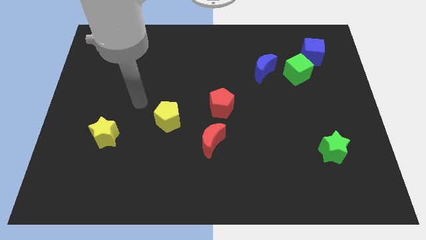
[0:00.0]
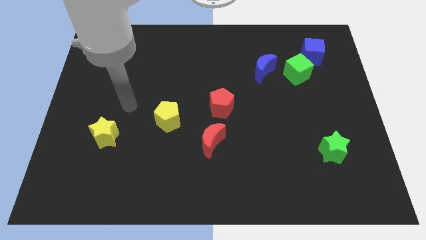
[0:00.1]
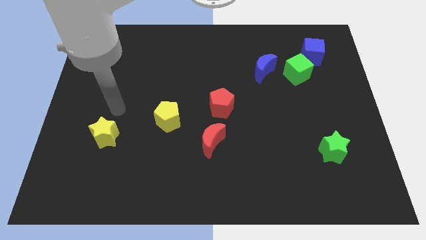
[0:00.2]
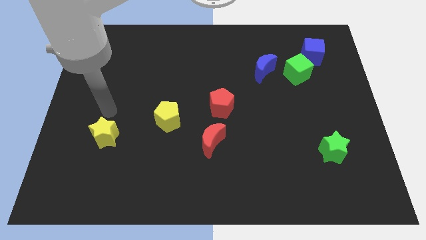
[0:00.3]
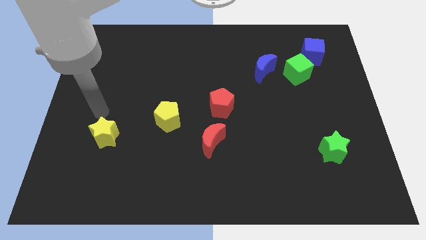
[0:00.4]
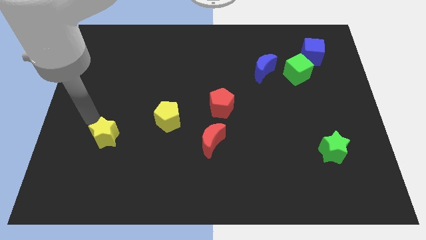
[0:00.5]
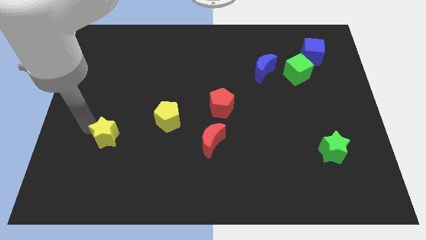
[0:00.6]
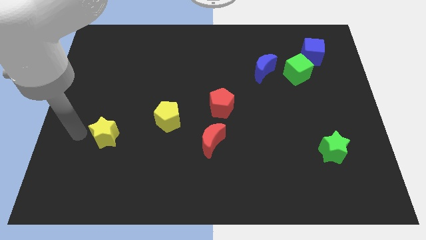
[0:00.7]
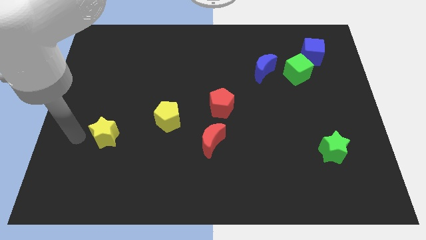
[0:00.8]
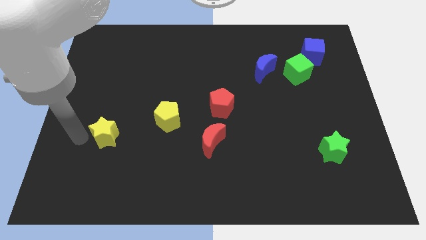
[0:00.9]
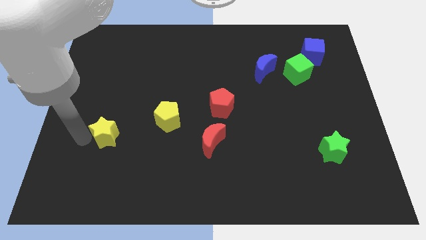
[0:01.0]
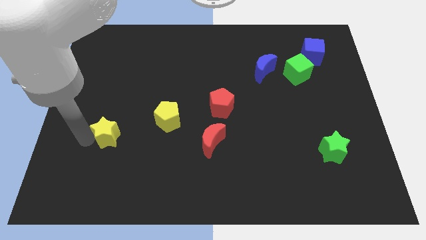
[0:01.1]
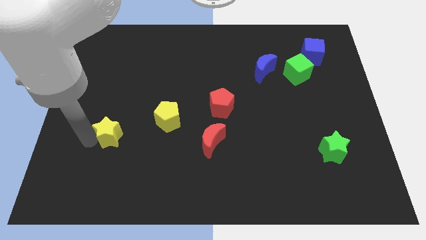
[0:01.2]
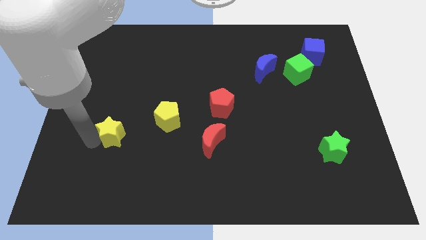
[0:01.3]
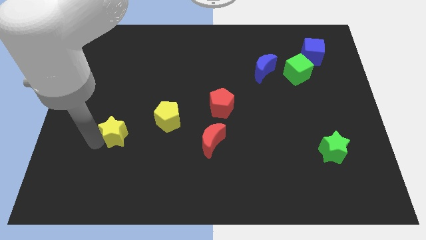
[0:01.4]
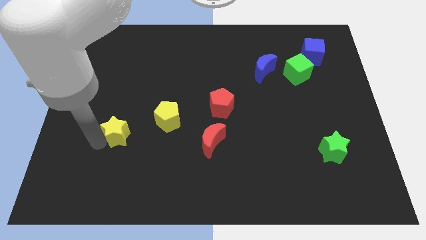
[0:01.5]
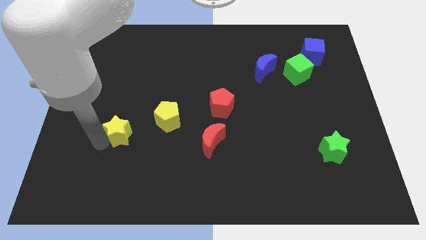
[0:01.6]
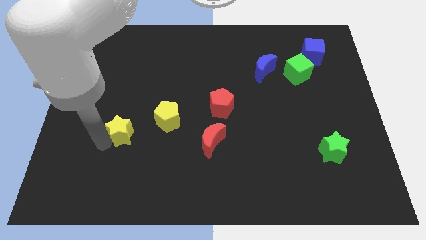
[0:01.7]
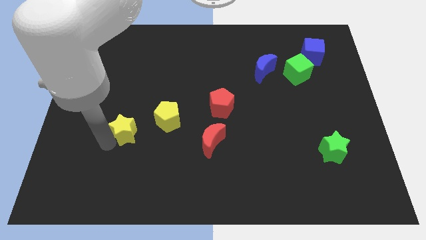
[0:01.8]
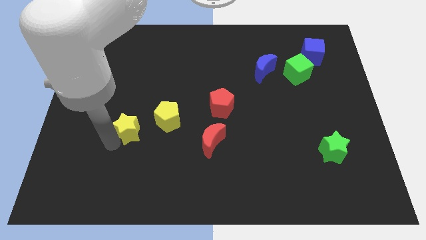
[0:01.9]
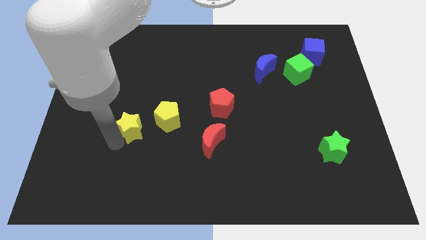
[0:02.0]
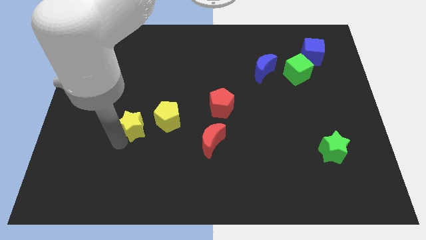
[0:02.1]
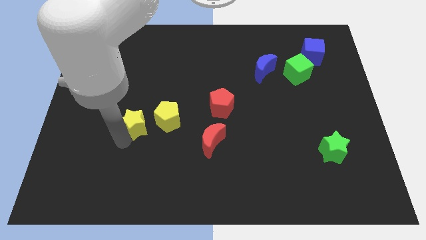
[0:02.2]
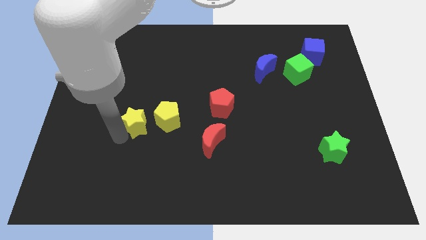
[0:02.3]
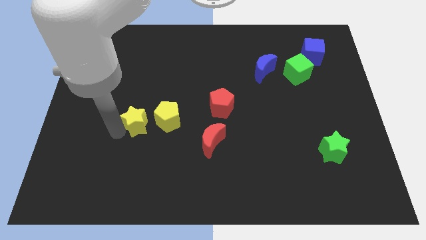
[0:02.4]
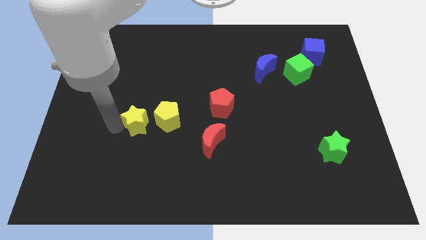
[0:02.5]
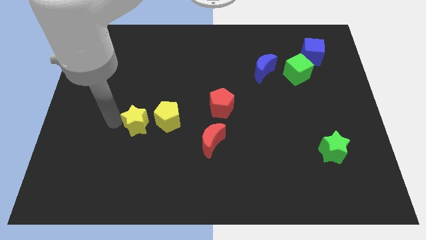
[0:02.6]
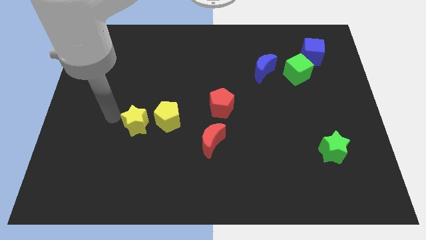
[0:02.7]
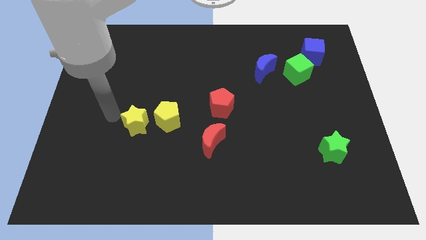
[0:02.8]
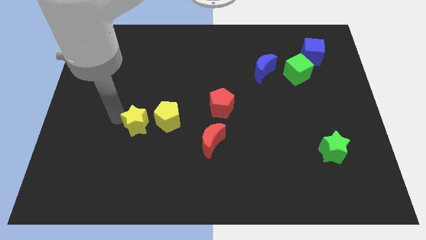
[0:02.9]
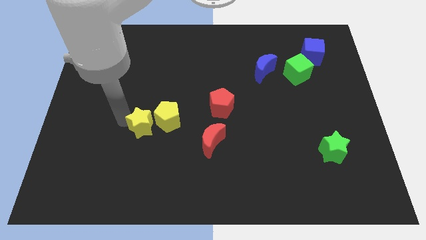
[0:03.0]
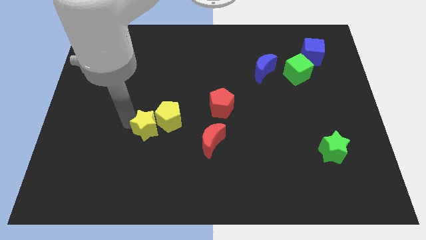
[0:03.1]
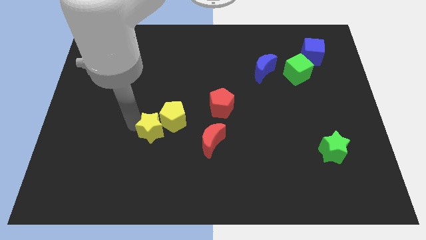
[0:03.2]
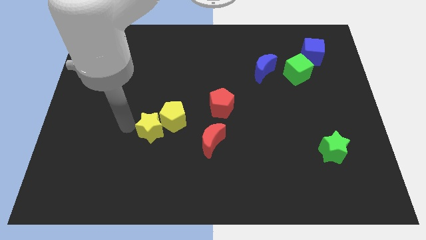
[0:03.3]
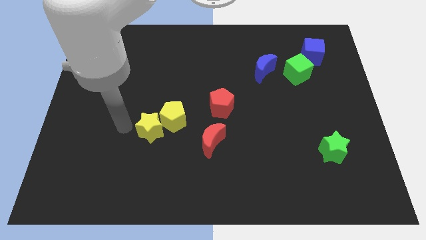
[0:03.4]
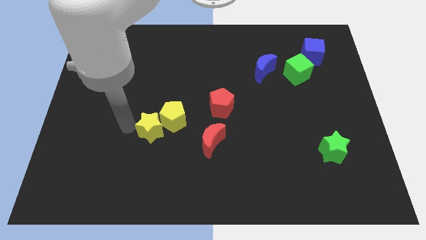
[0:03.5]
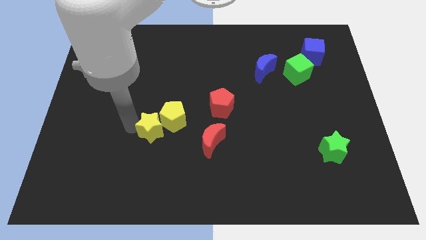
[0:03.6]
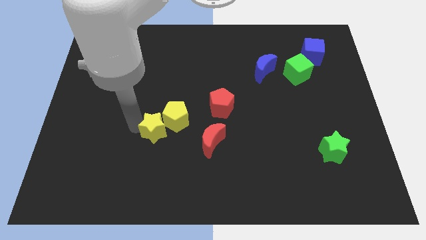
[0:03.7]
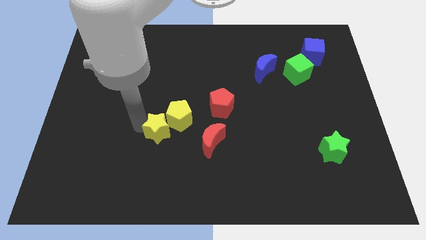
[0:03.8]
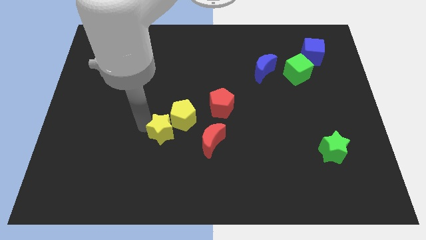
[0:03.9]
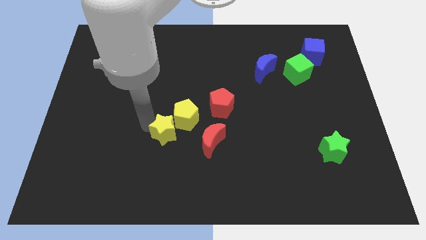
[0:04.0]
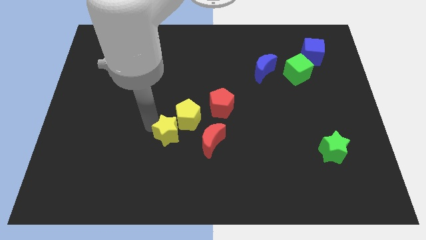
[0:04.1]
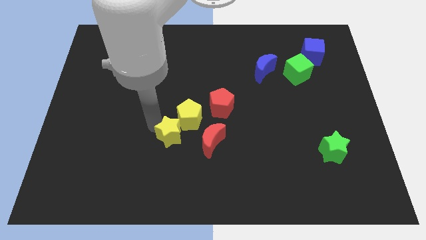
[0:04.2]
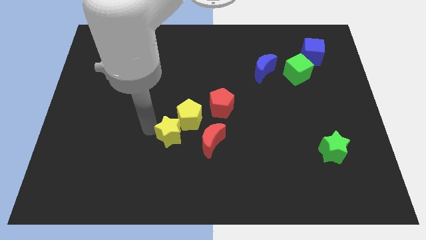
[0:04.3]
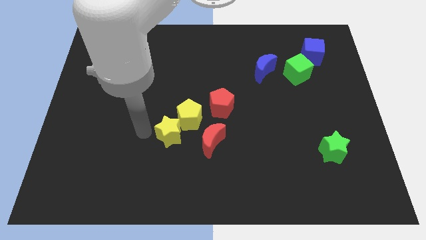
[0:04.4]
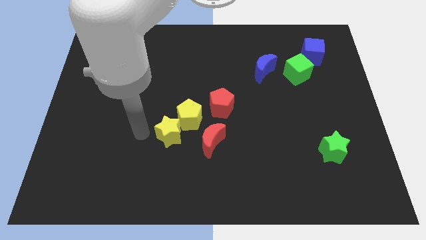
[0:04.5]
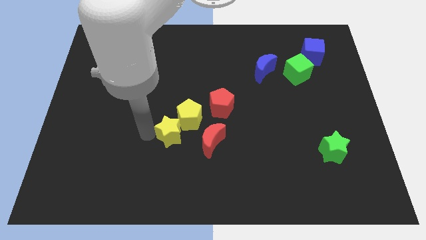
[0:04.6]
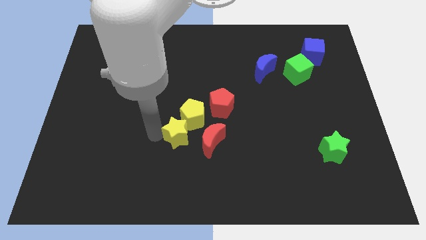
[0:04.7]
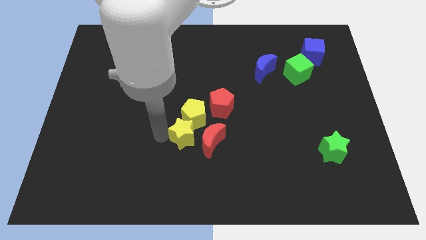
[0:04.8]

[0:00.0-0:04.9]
slide the yellow star close to the red moon

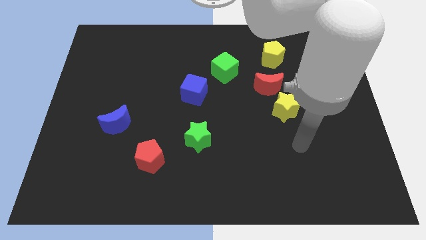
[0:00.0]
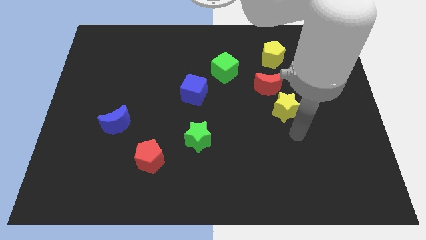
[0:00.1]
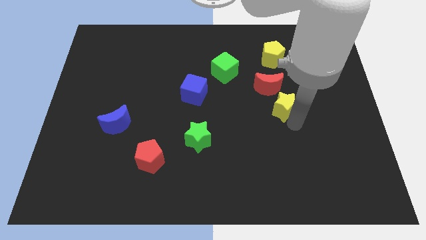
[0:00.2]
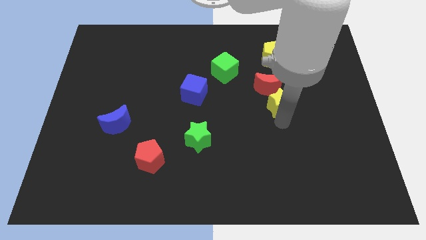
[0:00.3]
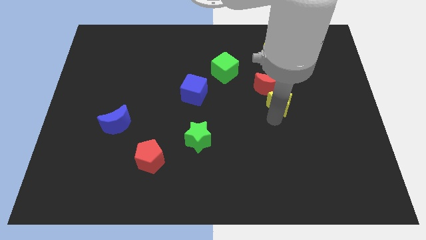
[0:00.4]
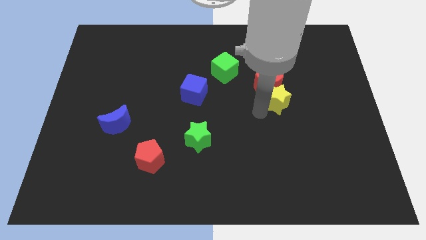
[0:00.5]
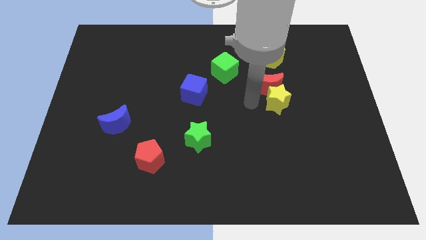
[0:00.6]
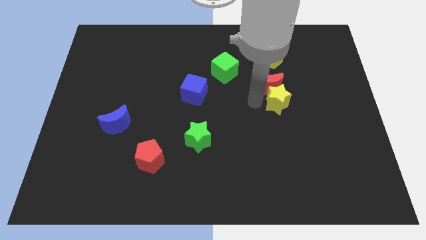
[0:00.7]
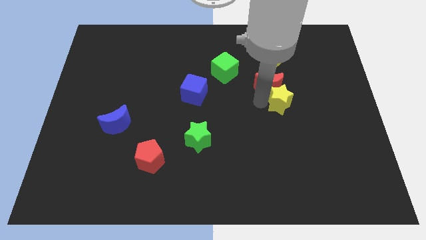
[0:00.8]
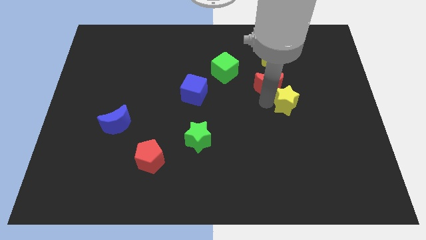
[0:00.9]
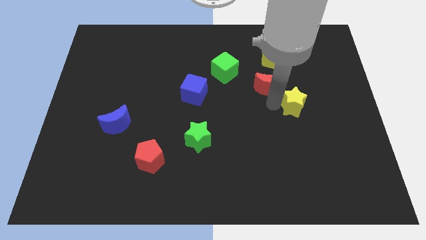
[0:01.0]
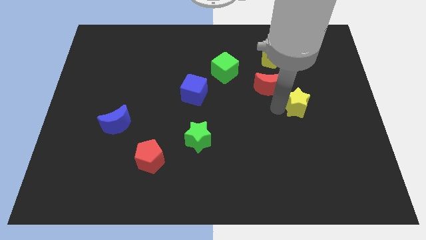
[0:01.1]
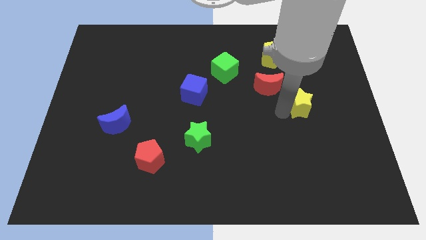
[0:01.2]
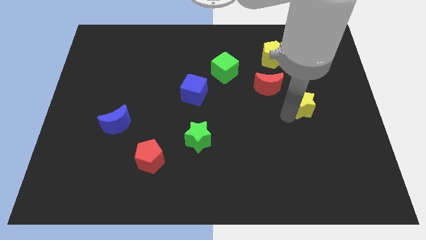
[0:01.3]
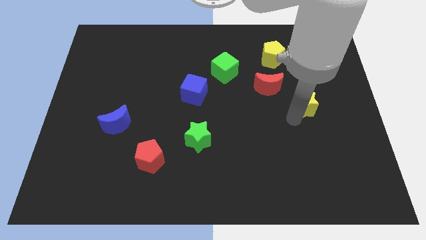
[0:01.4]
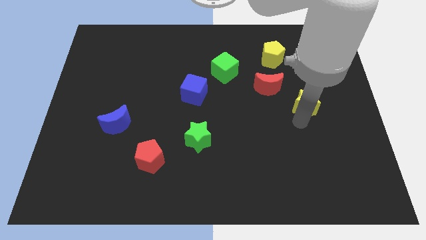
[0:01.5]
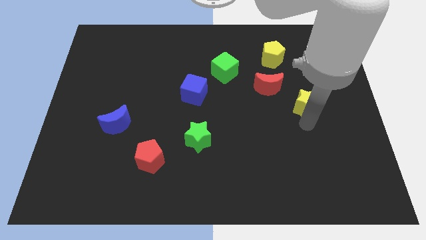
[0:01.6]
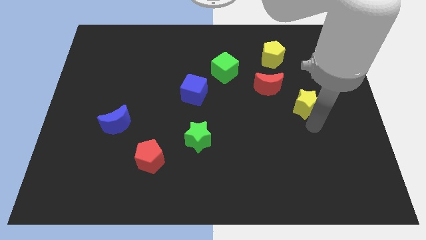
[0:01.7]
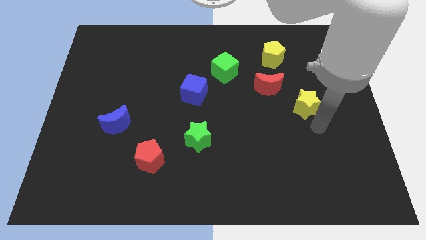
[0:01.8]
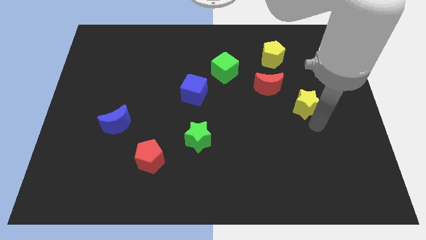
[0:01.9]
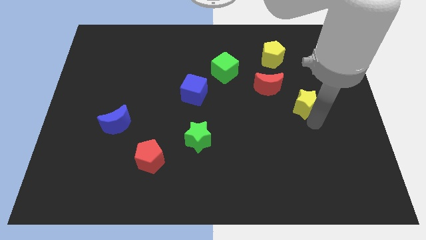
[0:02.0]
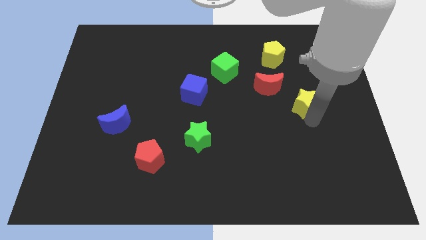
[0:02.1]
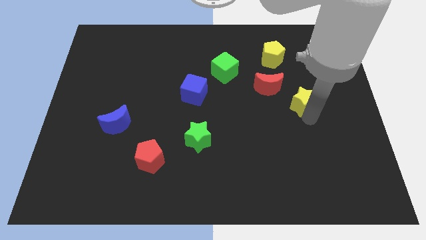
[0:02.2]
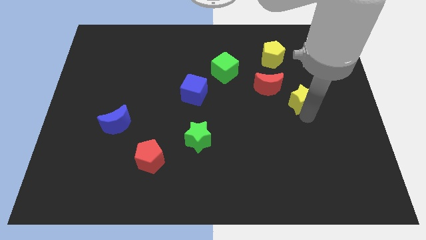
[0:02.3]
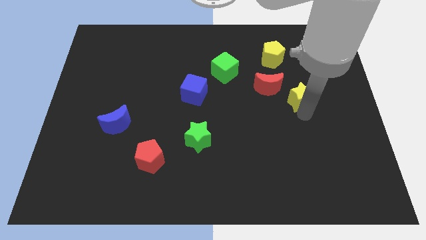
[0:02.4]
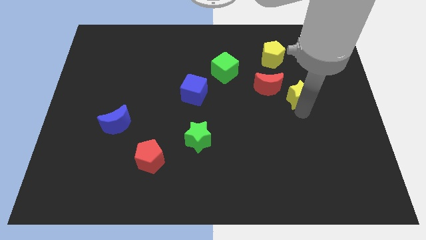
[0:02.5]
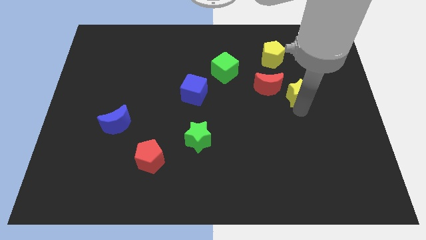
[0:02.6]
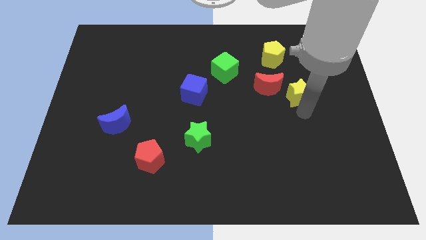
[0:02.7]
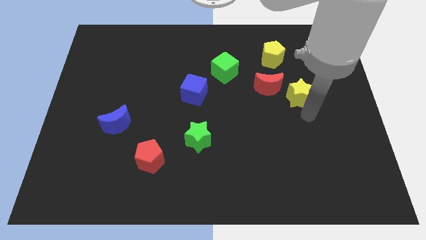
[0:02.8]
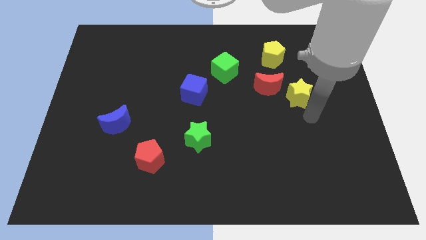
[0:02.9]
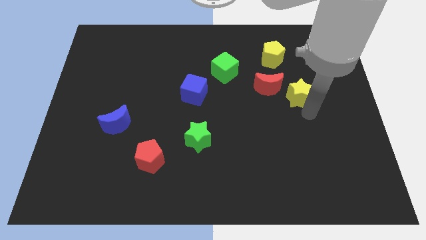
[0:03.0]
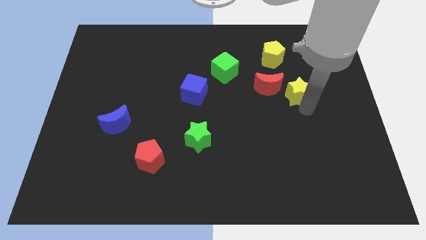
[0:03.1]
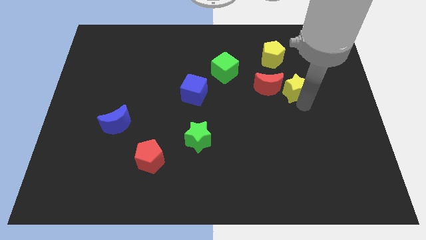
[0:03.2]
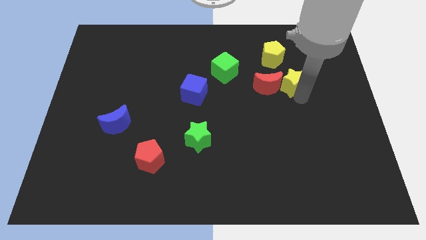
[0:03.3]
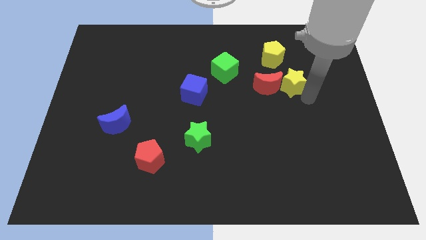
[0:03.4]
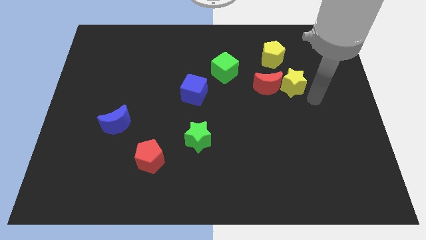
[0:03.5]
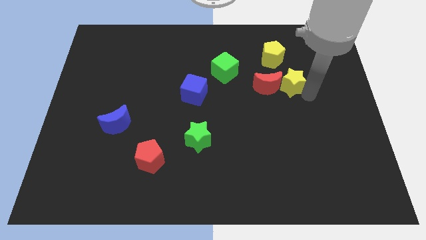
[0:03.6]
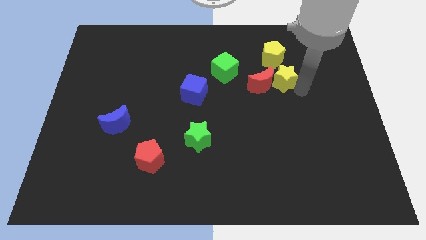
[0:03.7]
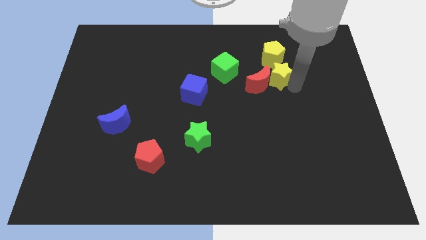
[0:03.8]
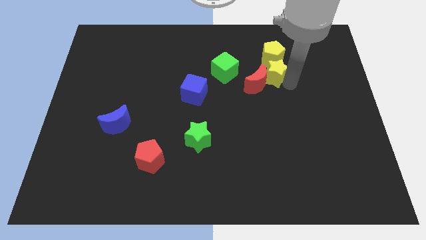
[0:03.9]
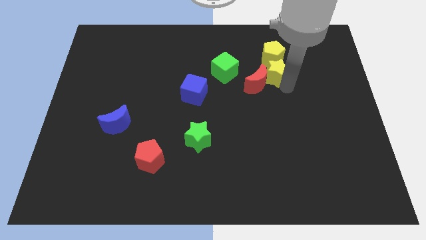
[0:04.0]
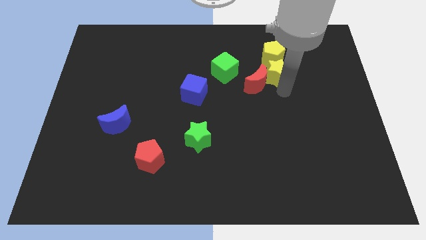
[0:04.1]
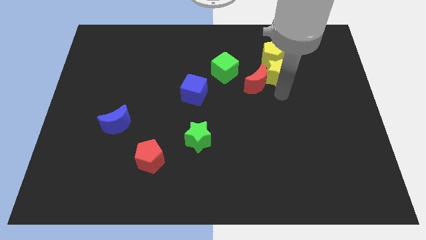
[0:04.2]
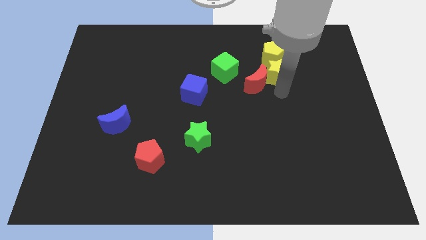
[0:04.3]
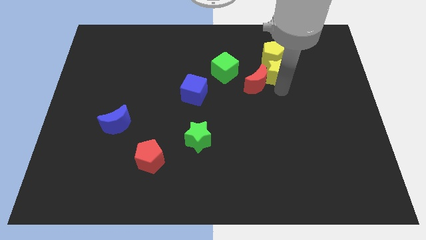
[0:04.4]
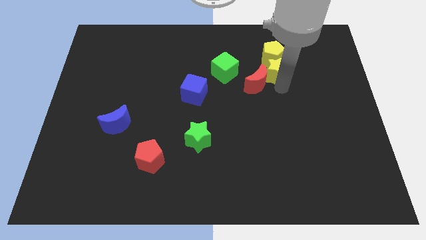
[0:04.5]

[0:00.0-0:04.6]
put the yellow star to the yellow pentagon
